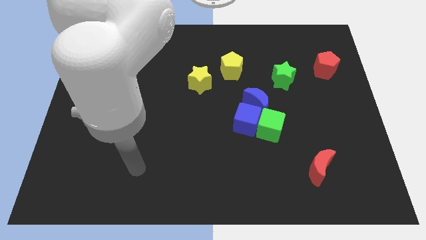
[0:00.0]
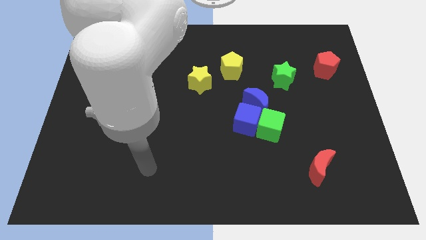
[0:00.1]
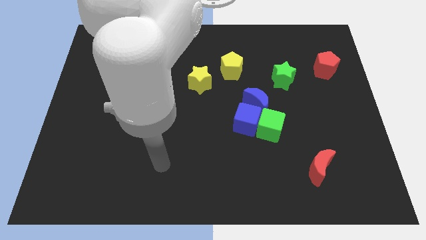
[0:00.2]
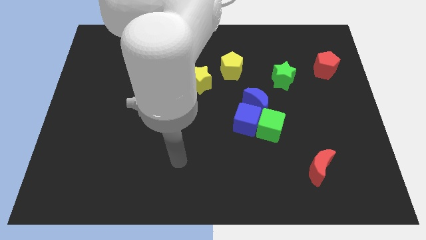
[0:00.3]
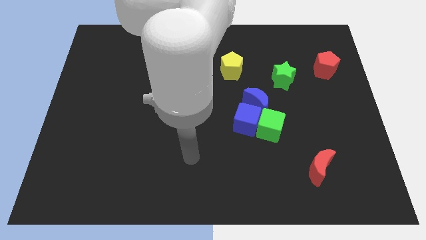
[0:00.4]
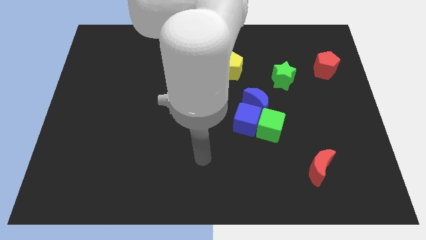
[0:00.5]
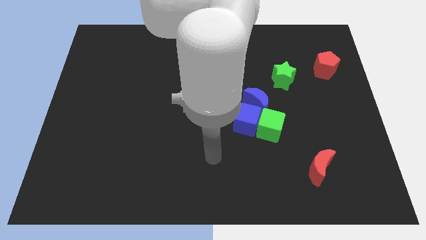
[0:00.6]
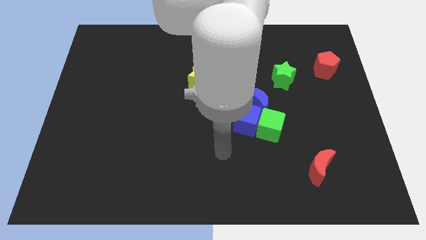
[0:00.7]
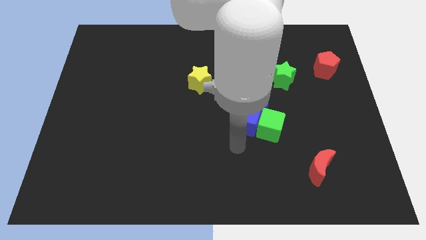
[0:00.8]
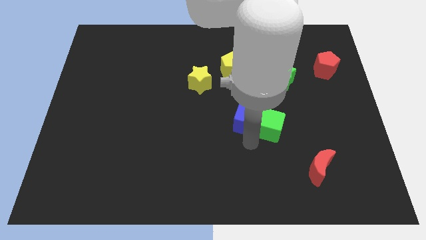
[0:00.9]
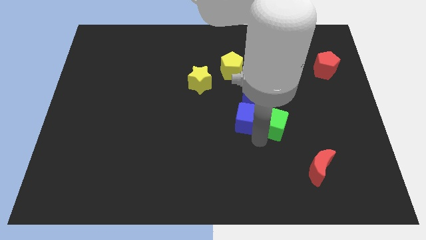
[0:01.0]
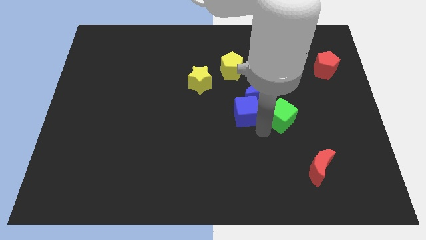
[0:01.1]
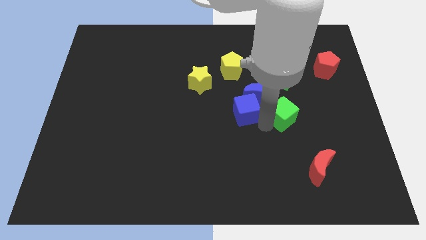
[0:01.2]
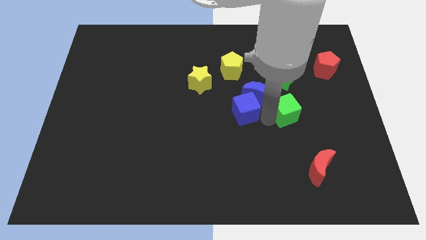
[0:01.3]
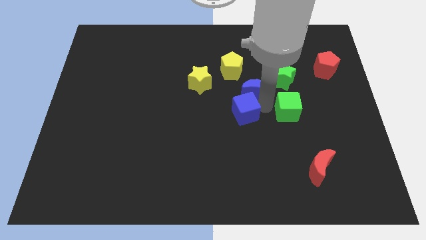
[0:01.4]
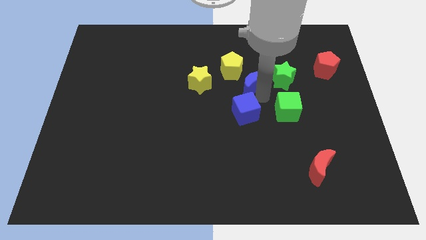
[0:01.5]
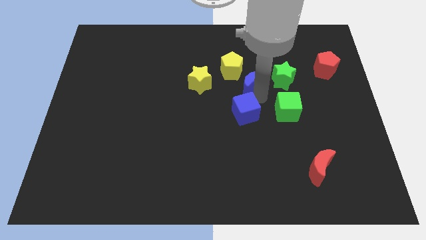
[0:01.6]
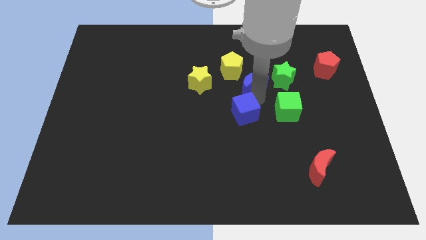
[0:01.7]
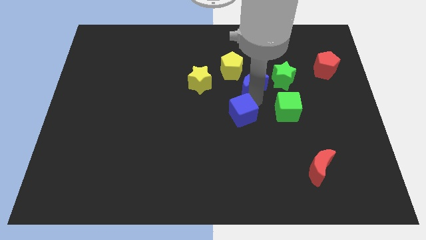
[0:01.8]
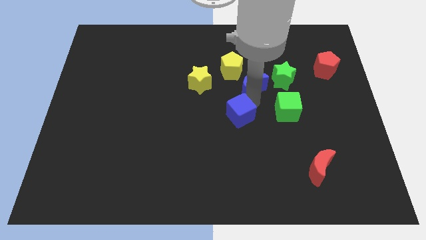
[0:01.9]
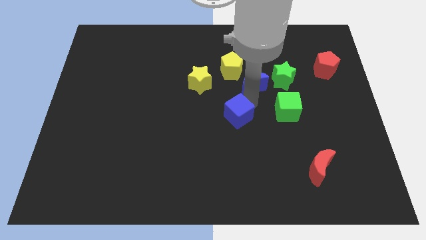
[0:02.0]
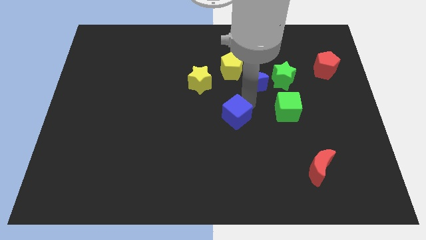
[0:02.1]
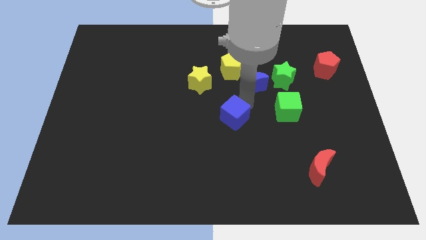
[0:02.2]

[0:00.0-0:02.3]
move the blue cube away from the green cube and blue moon

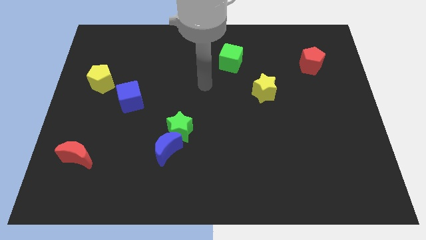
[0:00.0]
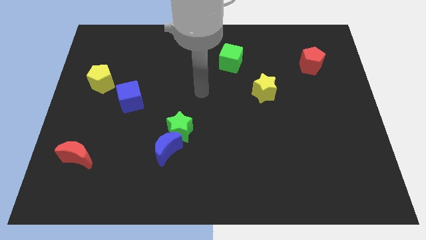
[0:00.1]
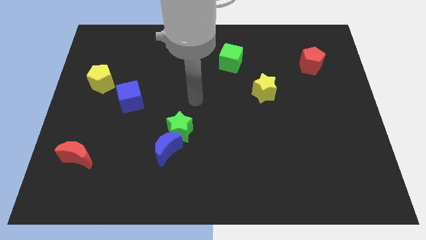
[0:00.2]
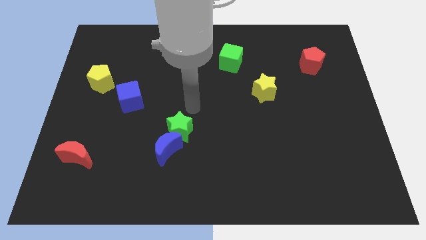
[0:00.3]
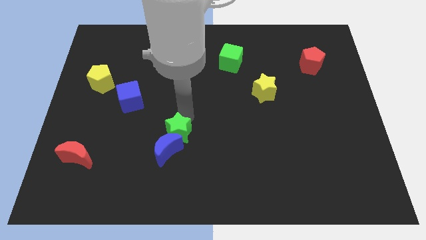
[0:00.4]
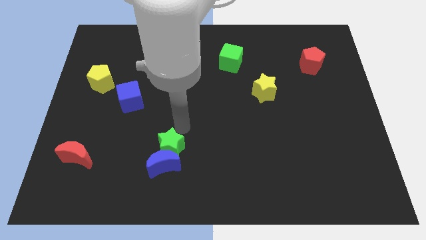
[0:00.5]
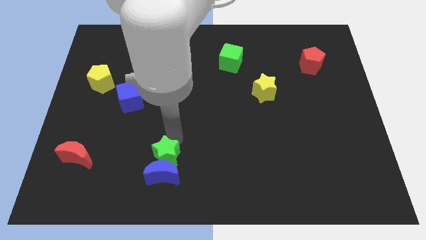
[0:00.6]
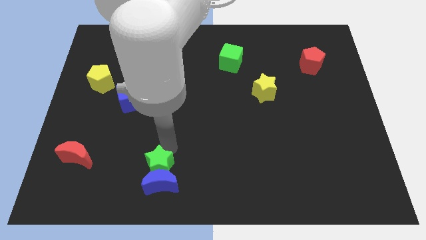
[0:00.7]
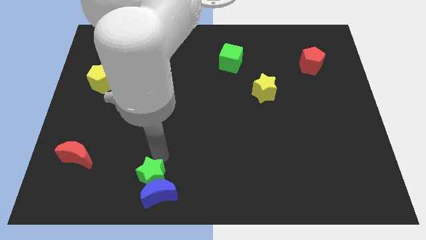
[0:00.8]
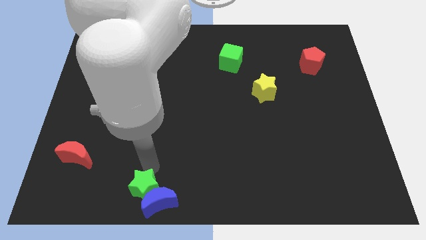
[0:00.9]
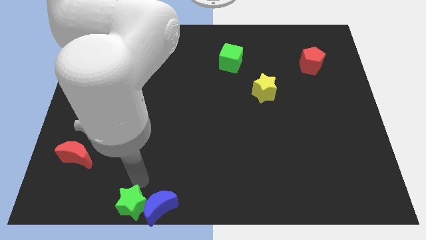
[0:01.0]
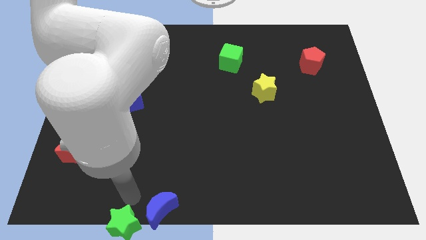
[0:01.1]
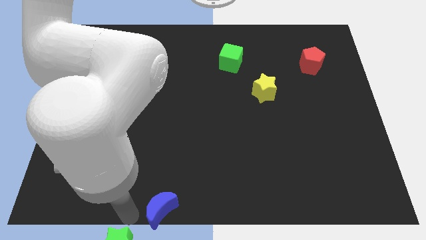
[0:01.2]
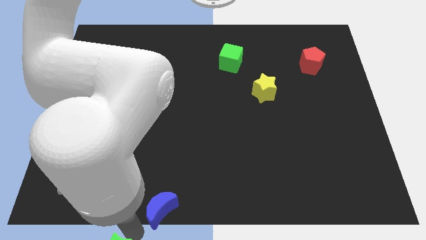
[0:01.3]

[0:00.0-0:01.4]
pull the blue moon apart from the green star

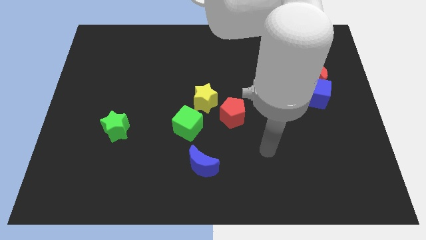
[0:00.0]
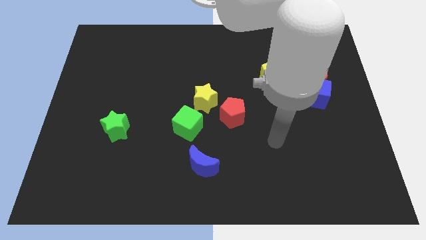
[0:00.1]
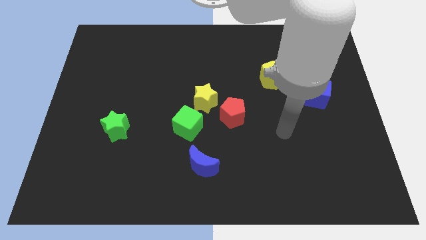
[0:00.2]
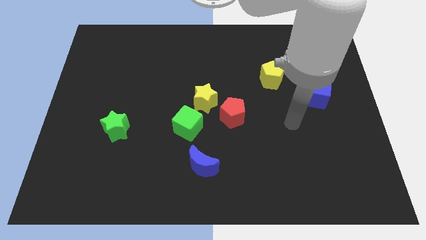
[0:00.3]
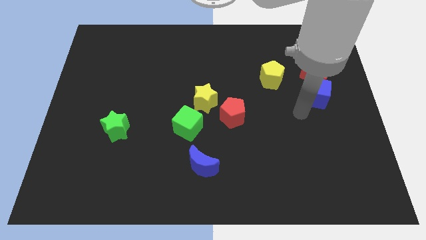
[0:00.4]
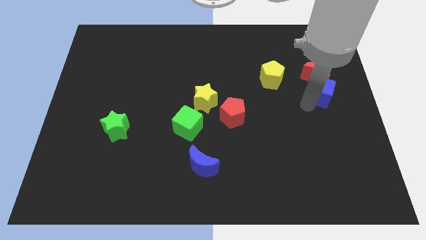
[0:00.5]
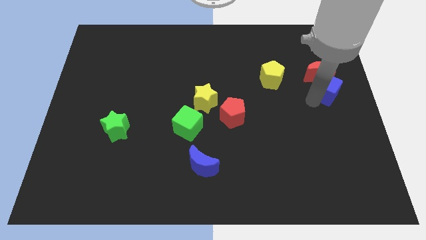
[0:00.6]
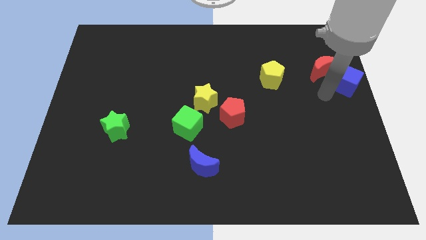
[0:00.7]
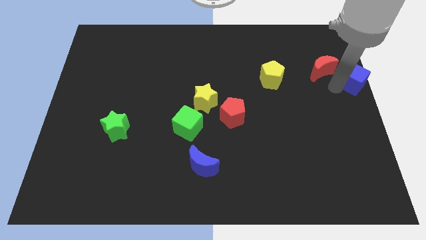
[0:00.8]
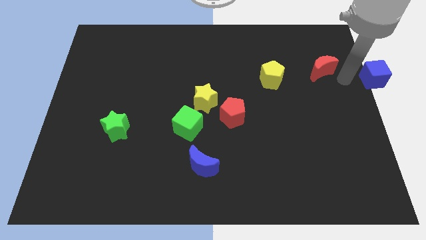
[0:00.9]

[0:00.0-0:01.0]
separate the red moon from the blue cube

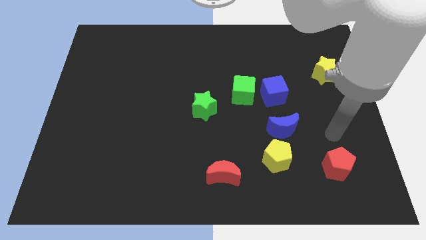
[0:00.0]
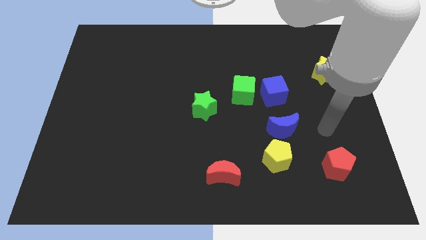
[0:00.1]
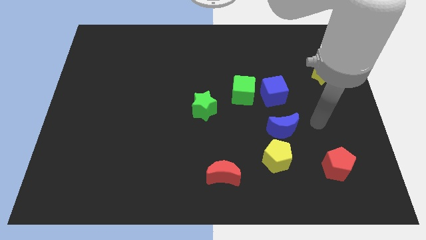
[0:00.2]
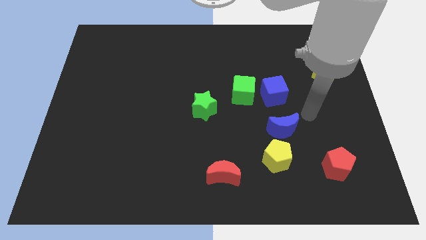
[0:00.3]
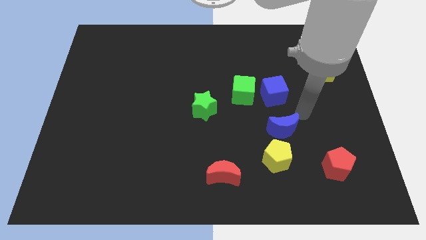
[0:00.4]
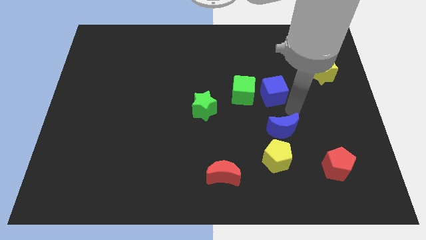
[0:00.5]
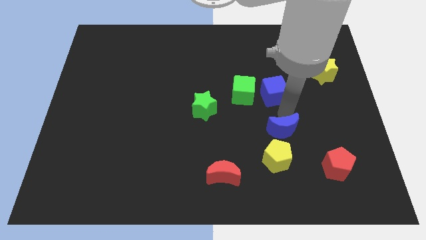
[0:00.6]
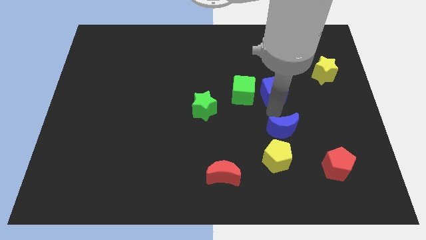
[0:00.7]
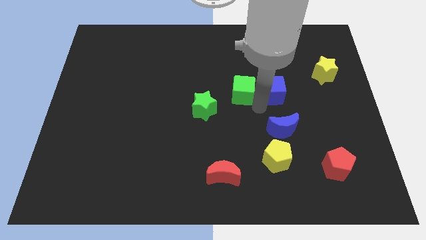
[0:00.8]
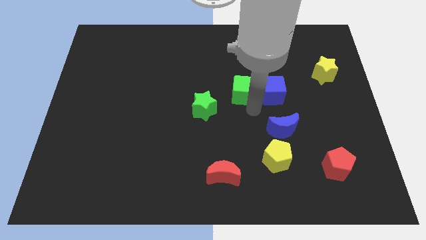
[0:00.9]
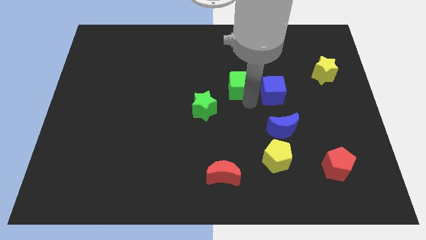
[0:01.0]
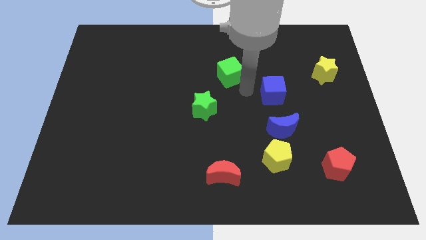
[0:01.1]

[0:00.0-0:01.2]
separate the blue cube from the green cube

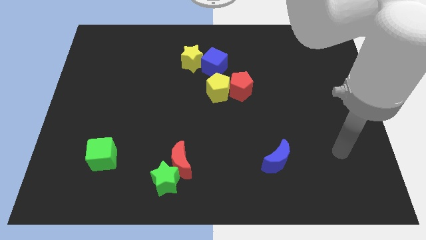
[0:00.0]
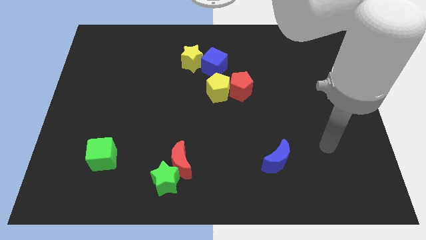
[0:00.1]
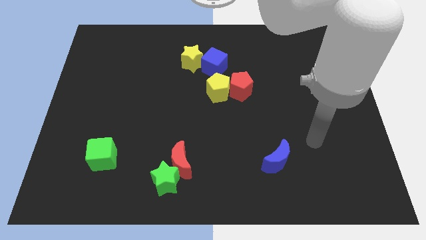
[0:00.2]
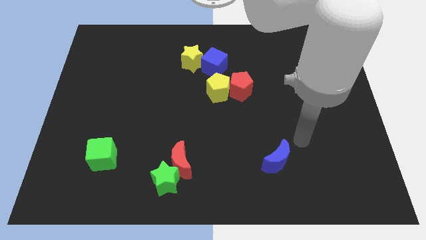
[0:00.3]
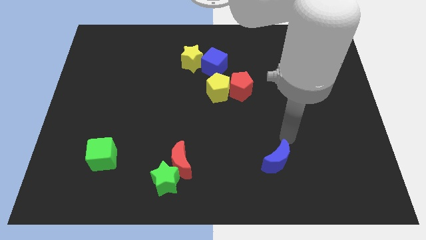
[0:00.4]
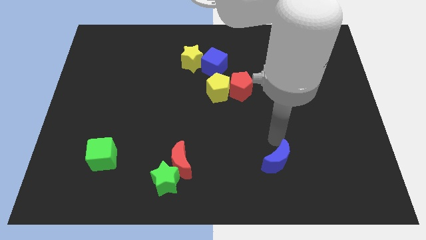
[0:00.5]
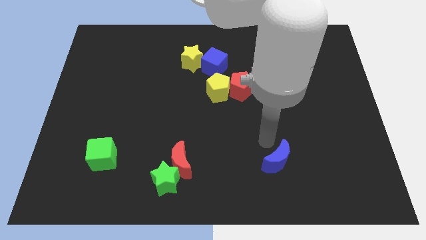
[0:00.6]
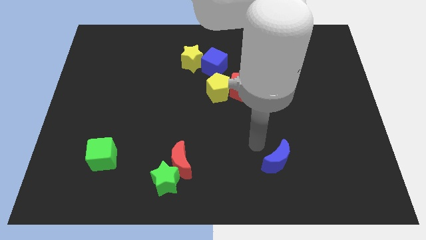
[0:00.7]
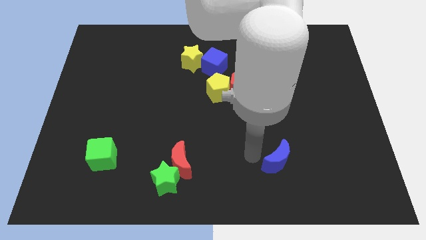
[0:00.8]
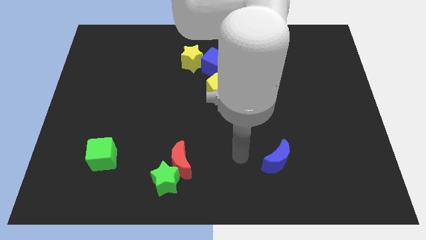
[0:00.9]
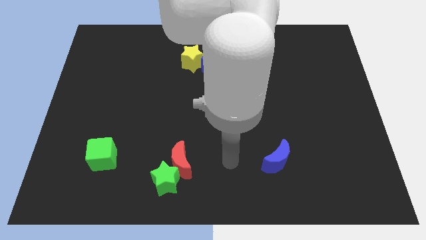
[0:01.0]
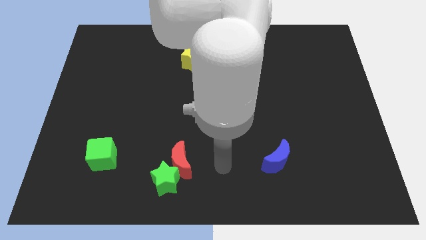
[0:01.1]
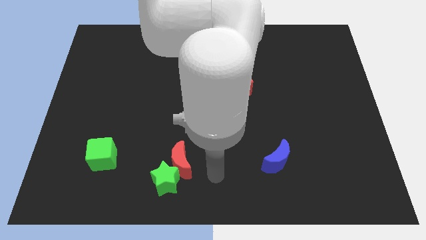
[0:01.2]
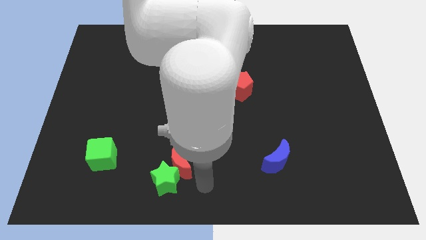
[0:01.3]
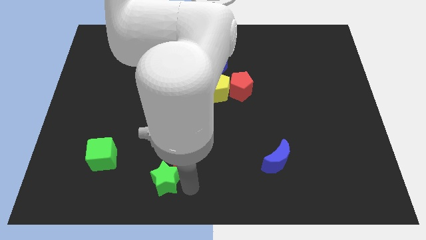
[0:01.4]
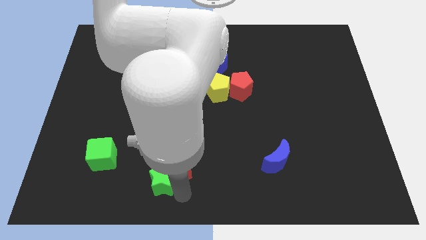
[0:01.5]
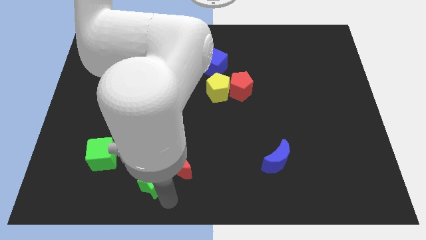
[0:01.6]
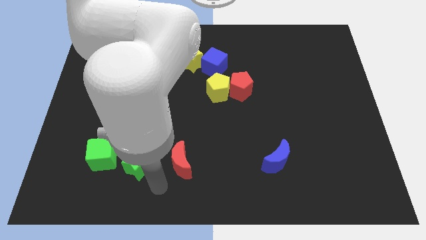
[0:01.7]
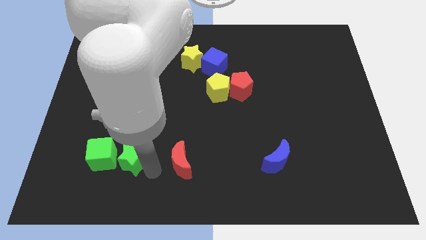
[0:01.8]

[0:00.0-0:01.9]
separate the red moon from the green star

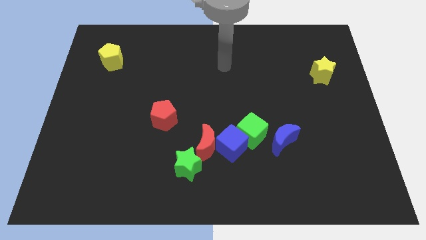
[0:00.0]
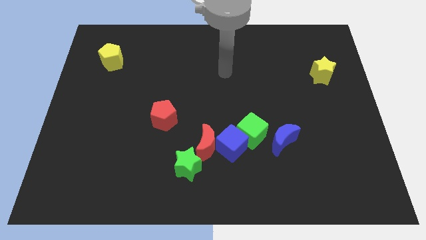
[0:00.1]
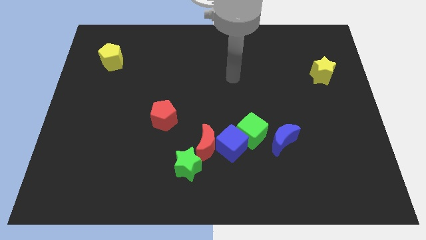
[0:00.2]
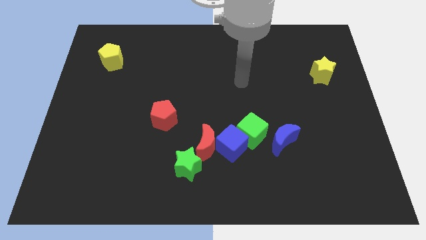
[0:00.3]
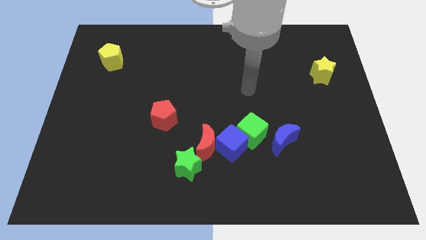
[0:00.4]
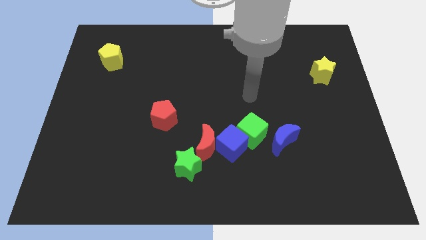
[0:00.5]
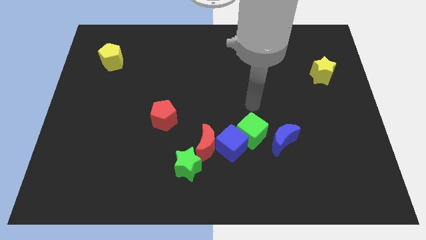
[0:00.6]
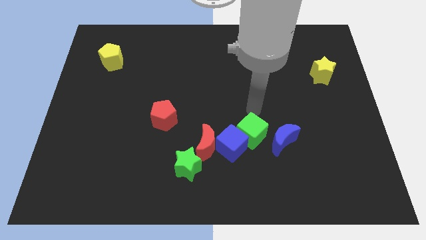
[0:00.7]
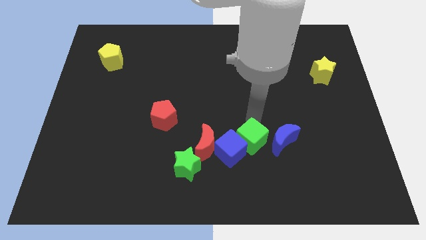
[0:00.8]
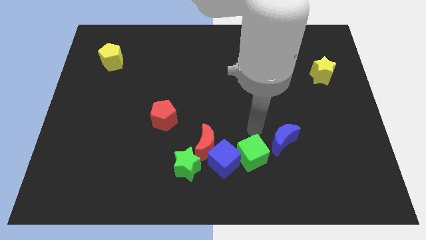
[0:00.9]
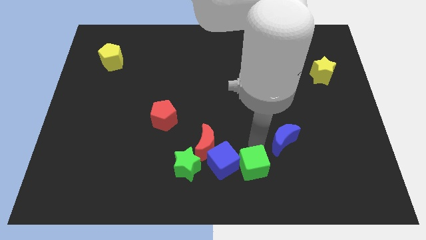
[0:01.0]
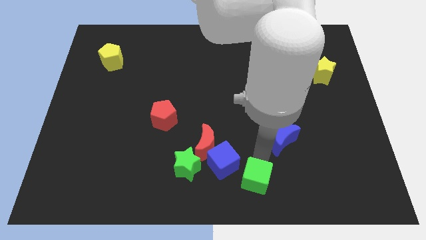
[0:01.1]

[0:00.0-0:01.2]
separate the blue moon from the green cube

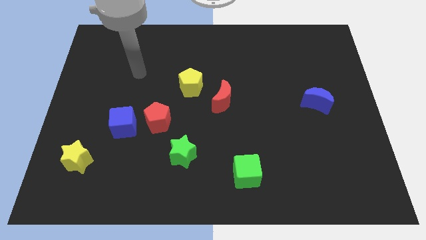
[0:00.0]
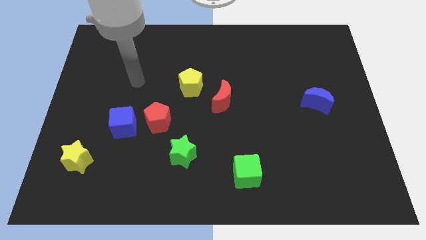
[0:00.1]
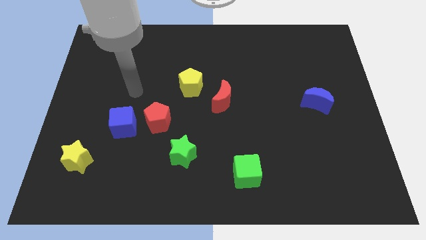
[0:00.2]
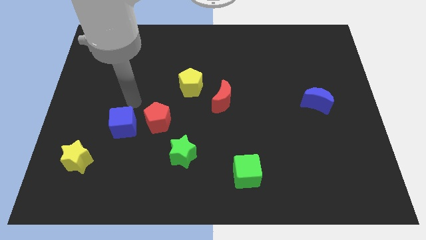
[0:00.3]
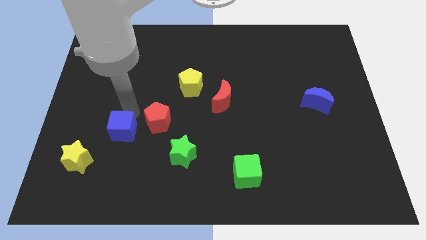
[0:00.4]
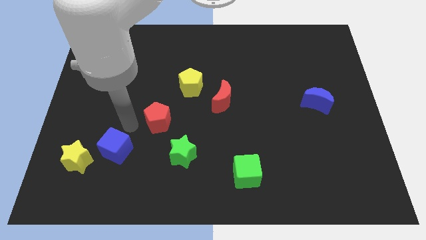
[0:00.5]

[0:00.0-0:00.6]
separate the red pentagon from the blue cube
